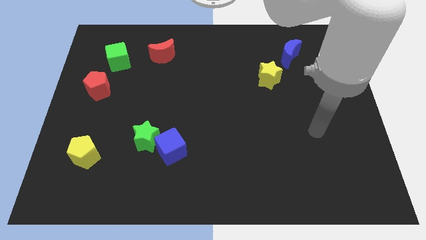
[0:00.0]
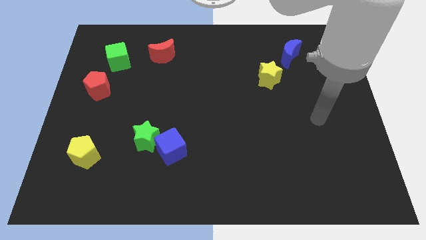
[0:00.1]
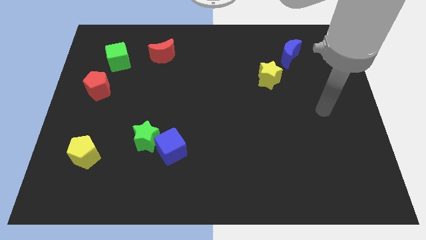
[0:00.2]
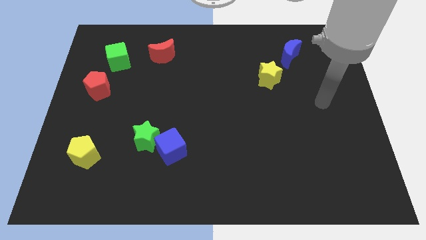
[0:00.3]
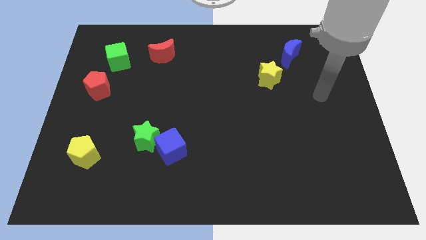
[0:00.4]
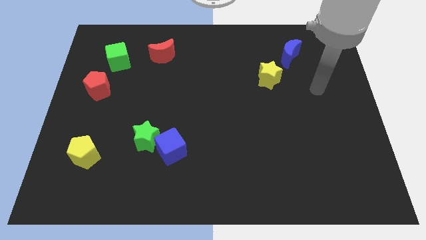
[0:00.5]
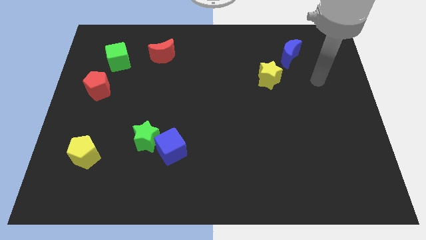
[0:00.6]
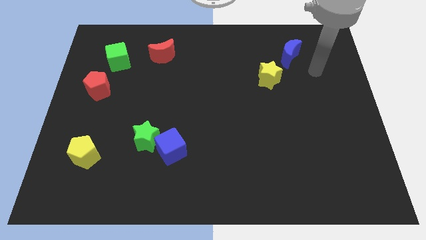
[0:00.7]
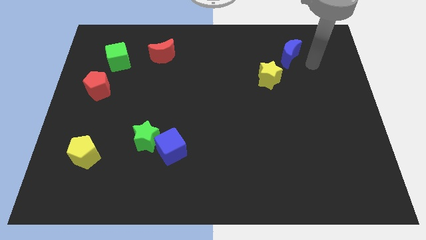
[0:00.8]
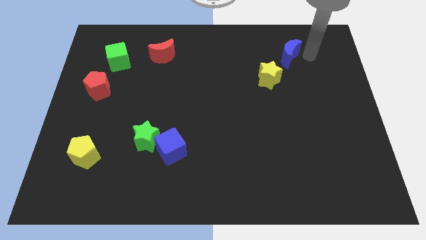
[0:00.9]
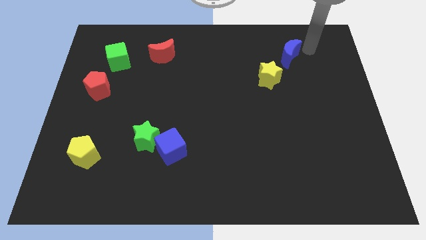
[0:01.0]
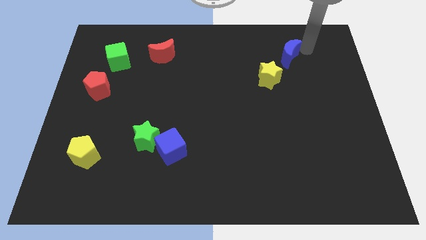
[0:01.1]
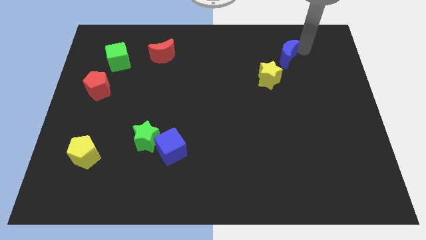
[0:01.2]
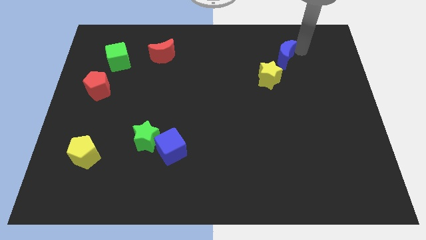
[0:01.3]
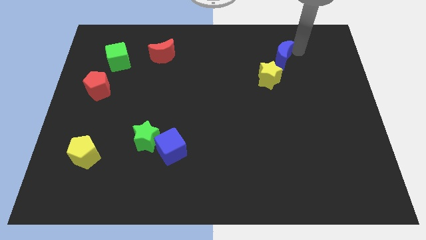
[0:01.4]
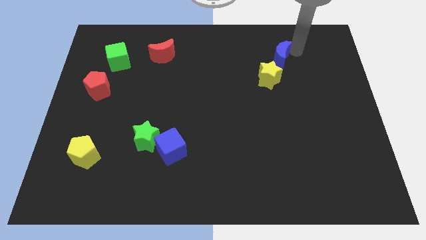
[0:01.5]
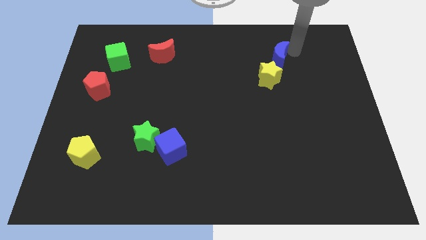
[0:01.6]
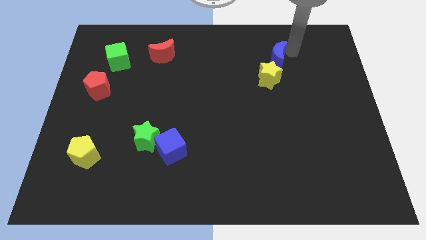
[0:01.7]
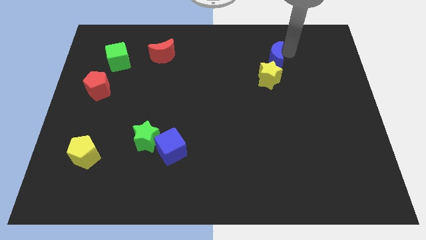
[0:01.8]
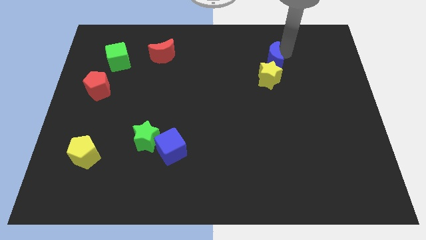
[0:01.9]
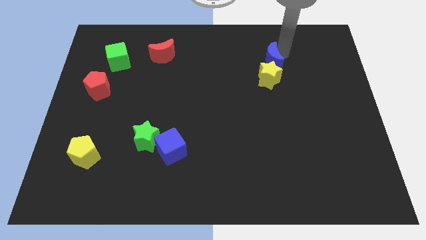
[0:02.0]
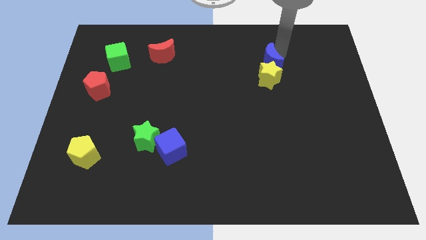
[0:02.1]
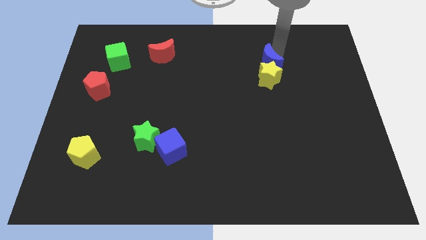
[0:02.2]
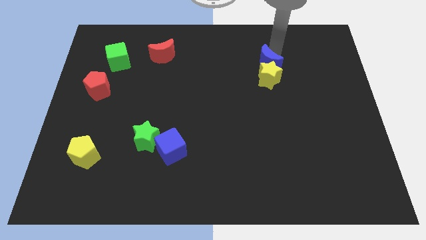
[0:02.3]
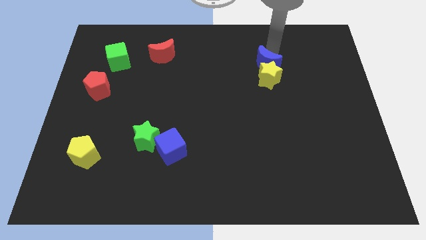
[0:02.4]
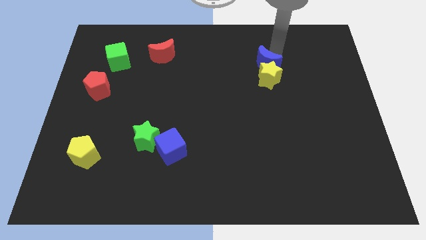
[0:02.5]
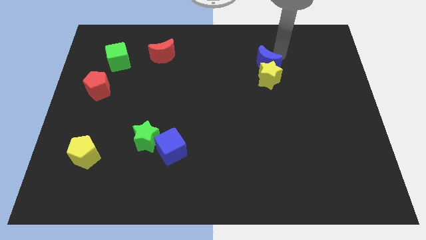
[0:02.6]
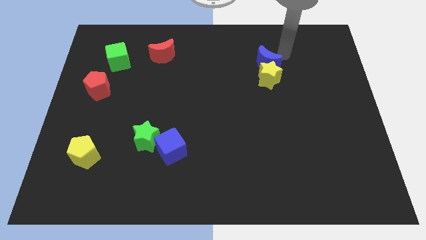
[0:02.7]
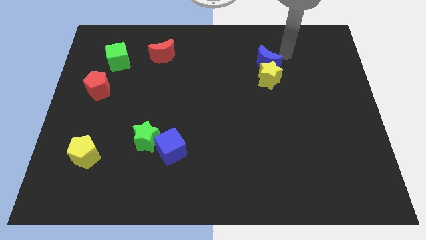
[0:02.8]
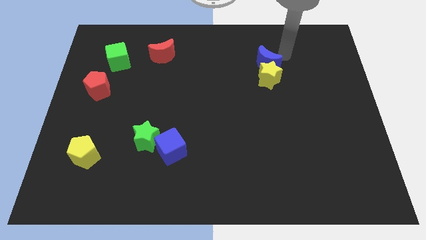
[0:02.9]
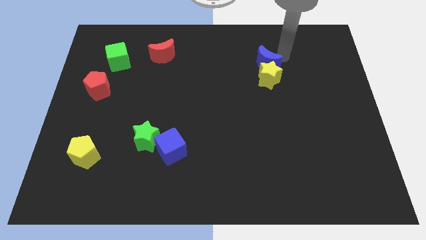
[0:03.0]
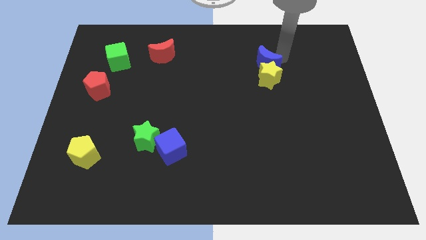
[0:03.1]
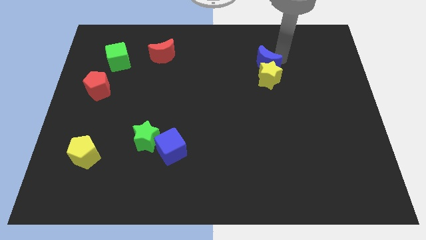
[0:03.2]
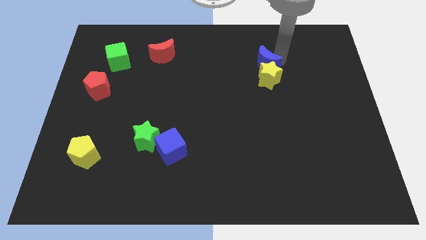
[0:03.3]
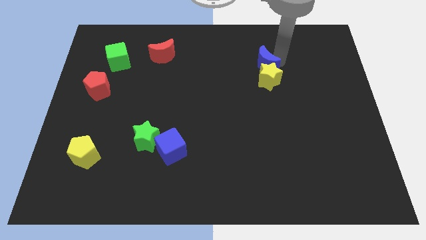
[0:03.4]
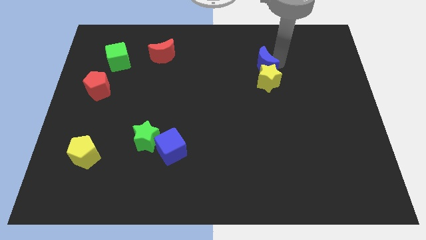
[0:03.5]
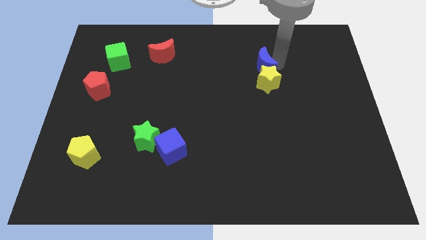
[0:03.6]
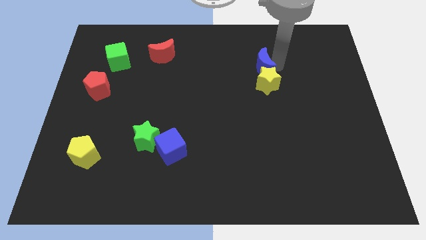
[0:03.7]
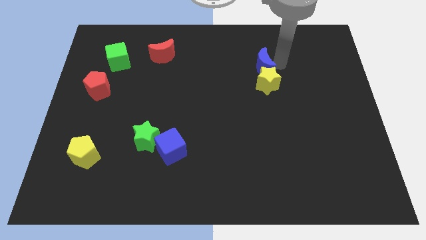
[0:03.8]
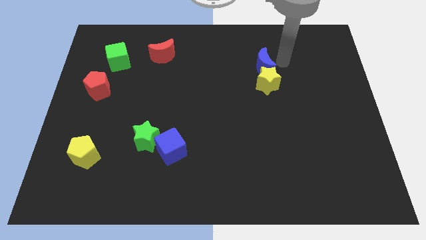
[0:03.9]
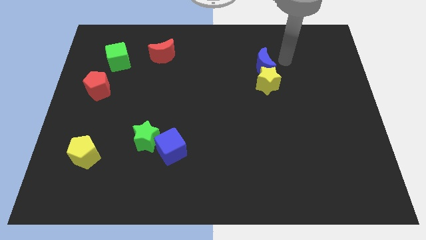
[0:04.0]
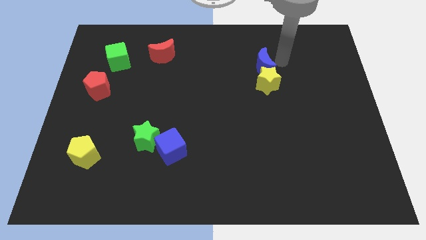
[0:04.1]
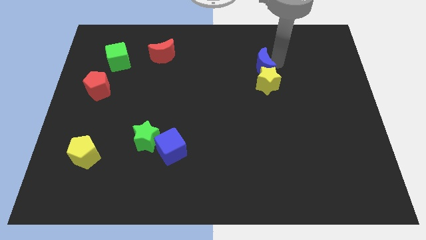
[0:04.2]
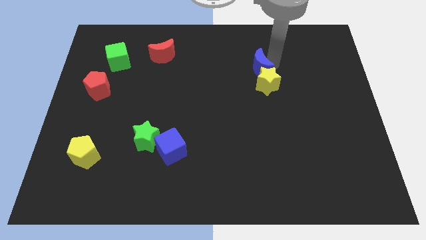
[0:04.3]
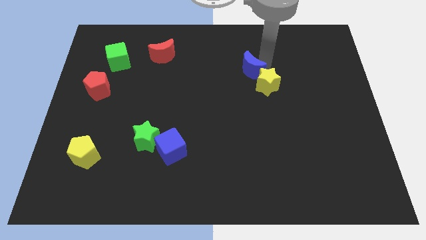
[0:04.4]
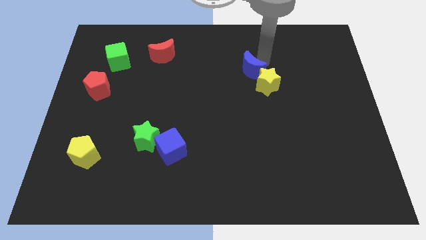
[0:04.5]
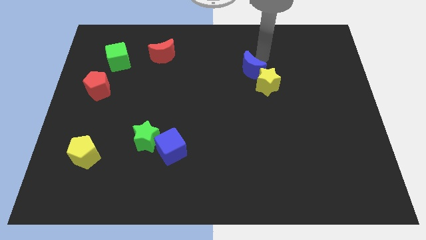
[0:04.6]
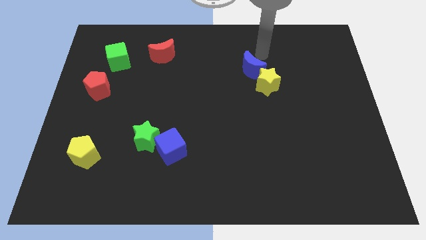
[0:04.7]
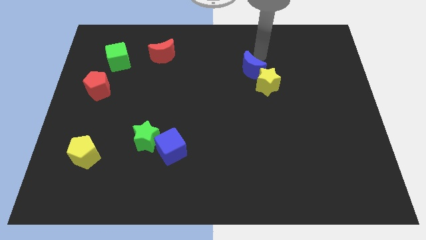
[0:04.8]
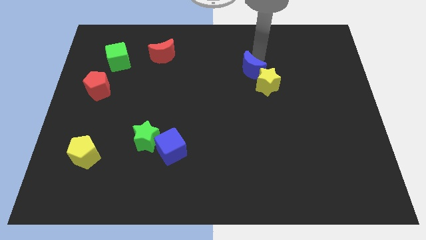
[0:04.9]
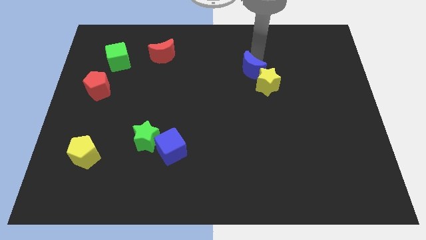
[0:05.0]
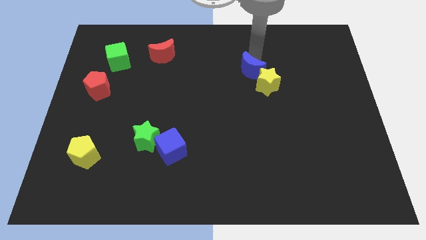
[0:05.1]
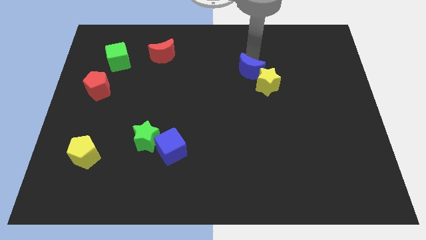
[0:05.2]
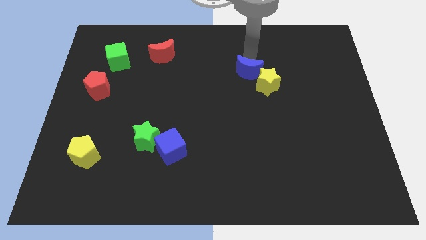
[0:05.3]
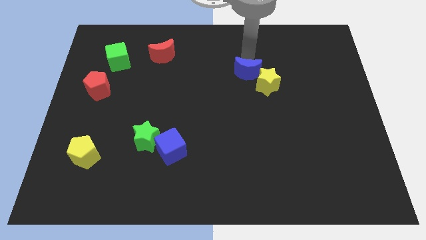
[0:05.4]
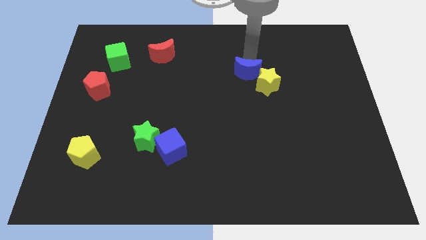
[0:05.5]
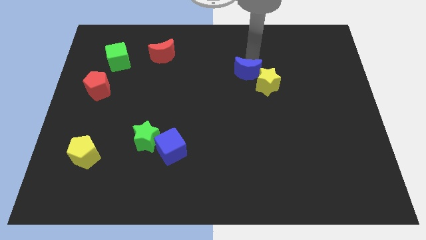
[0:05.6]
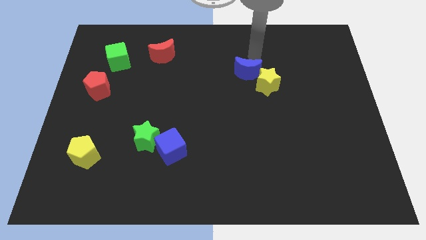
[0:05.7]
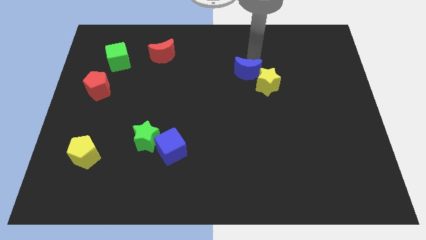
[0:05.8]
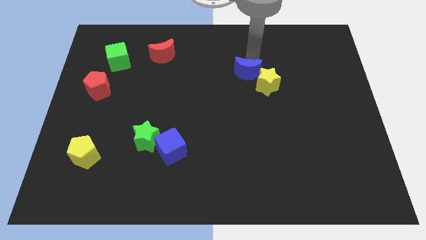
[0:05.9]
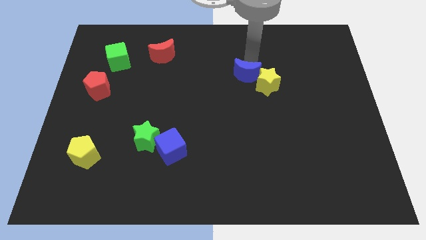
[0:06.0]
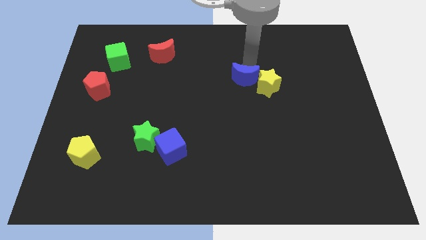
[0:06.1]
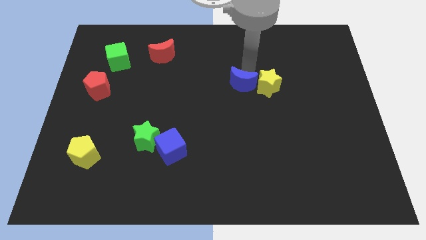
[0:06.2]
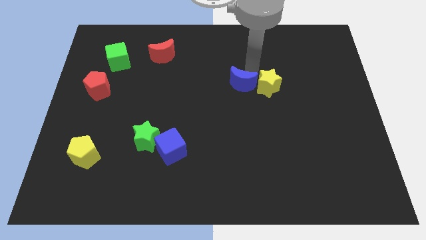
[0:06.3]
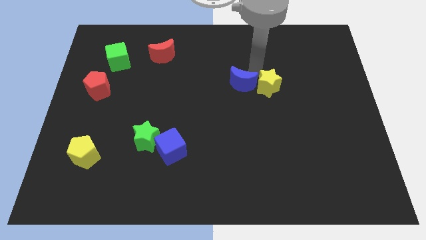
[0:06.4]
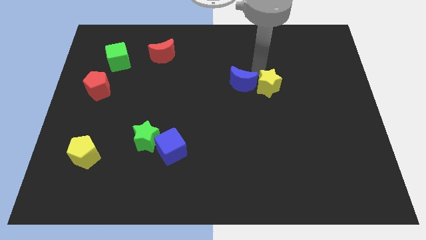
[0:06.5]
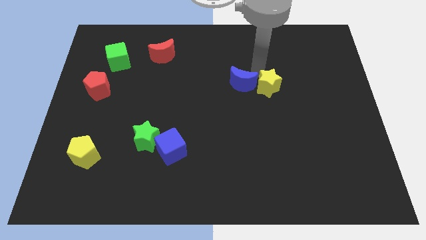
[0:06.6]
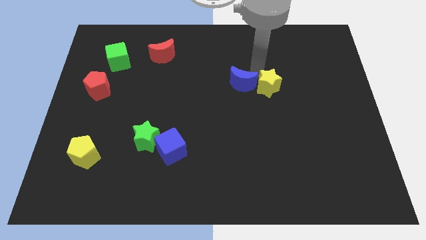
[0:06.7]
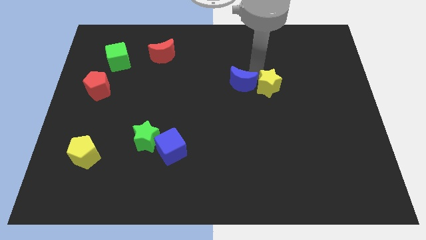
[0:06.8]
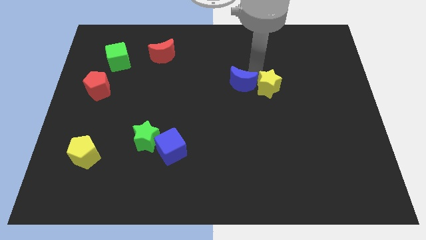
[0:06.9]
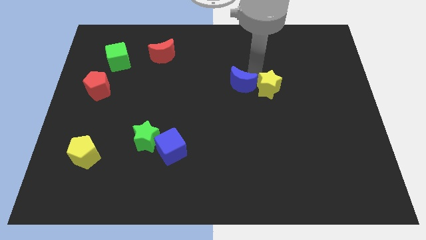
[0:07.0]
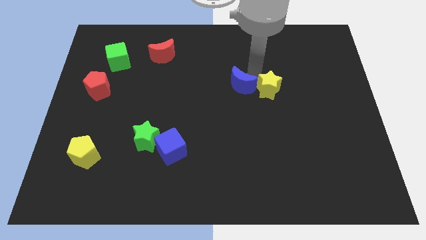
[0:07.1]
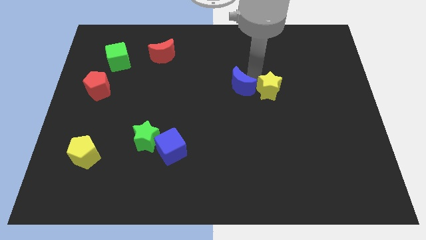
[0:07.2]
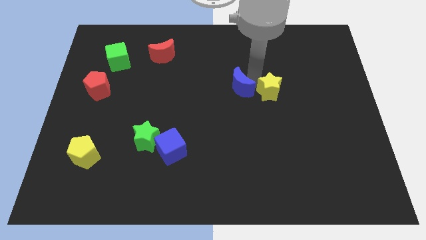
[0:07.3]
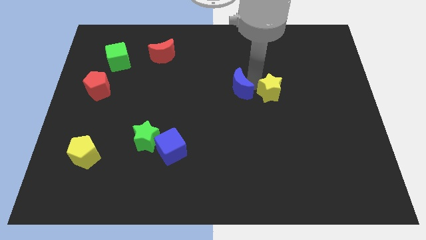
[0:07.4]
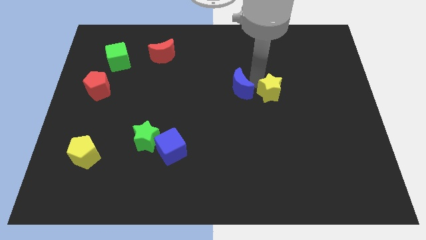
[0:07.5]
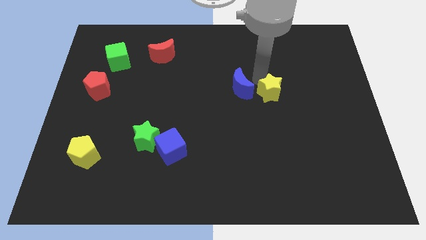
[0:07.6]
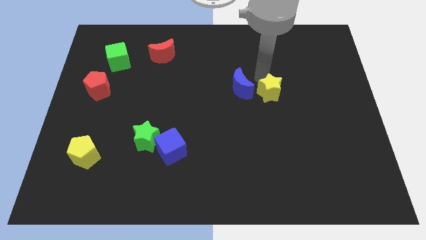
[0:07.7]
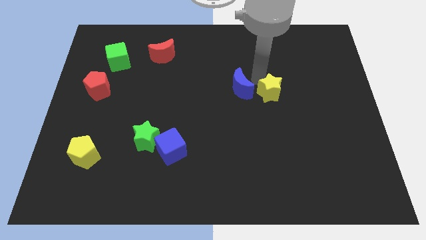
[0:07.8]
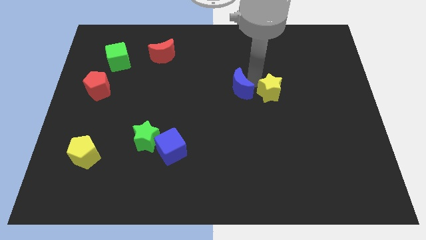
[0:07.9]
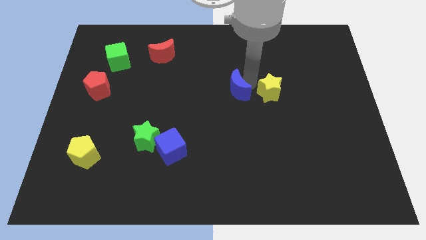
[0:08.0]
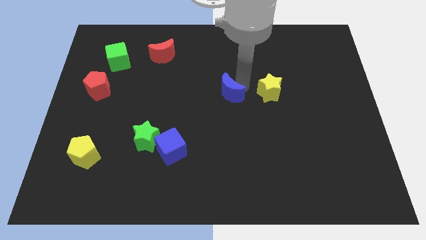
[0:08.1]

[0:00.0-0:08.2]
push the blue moon down and then left
